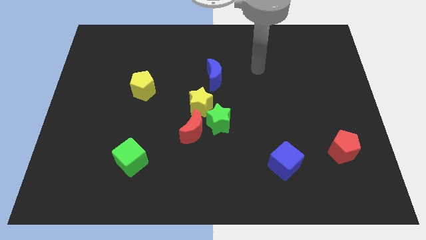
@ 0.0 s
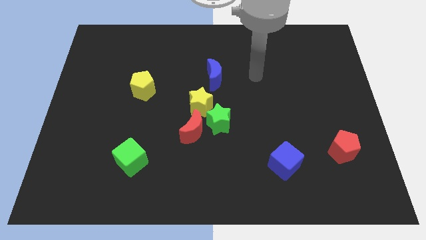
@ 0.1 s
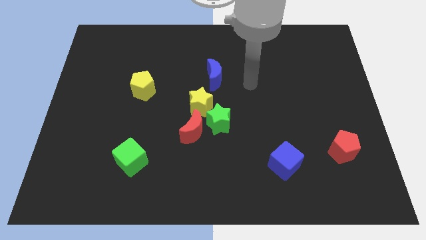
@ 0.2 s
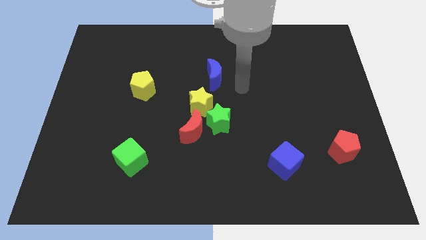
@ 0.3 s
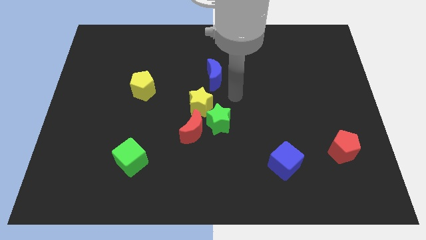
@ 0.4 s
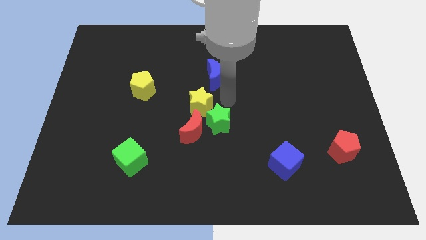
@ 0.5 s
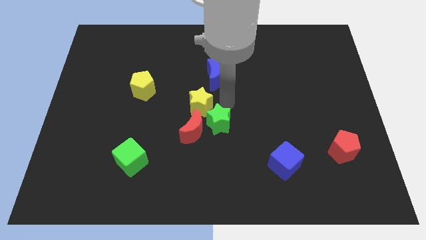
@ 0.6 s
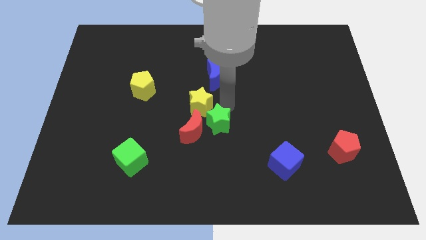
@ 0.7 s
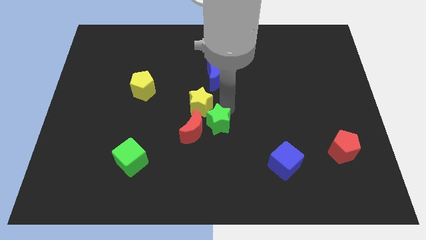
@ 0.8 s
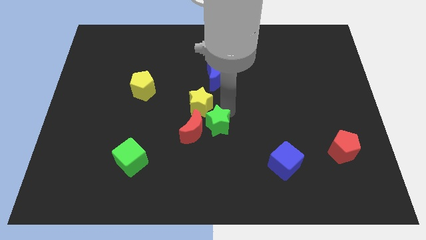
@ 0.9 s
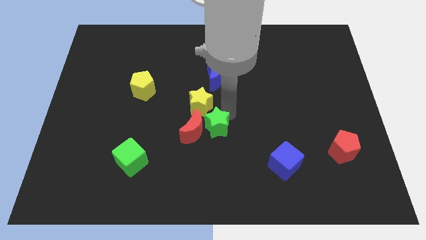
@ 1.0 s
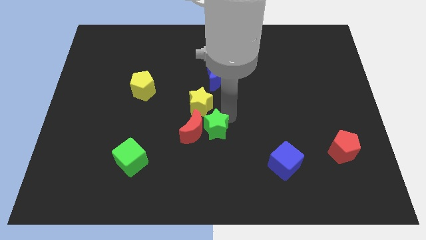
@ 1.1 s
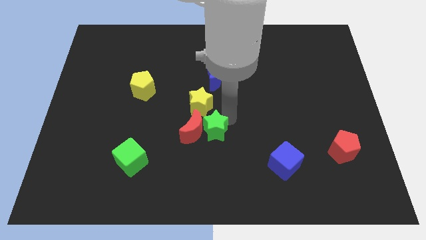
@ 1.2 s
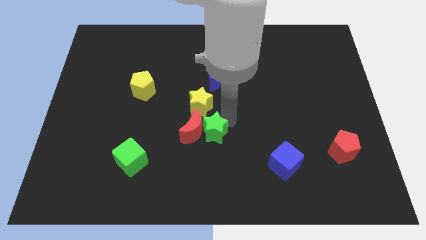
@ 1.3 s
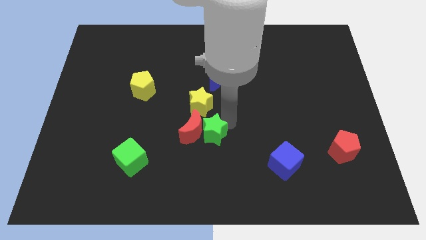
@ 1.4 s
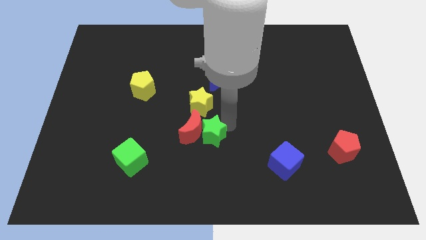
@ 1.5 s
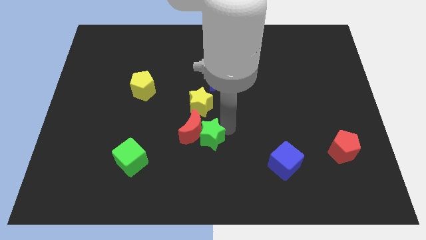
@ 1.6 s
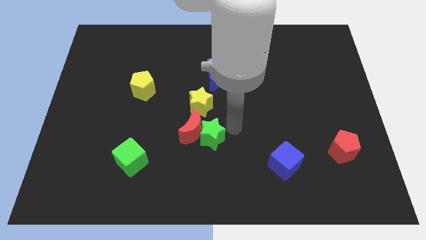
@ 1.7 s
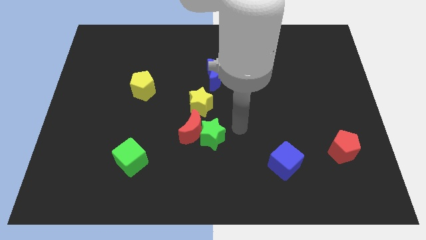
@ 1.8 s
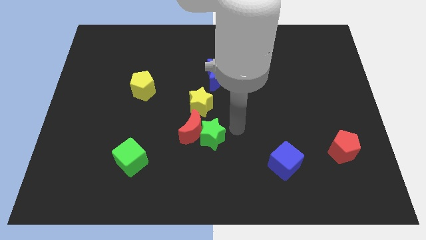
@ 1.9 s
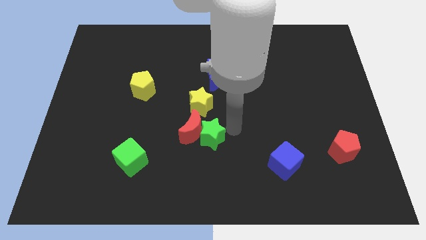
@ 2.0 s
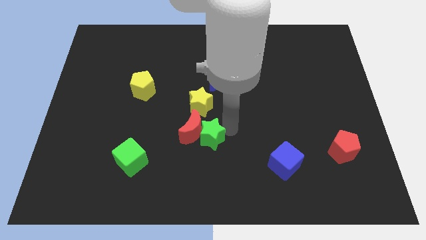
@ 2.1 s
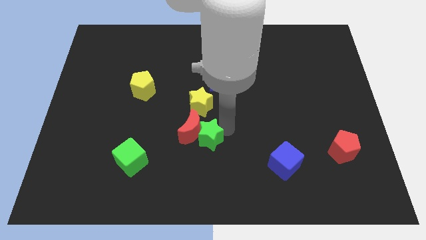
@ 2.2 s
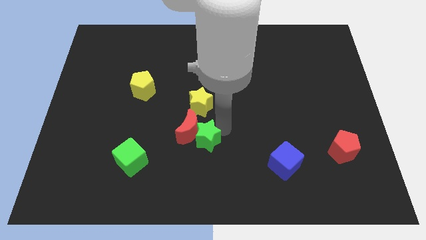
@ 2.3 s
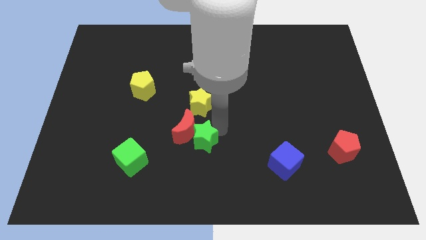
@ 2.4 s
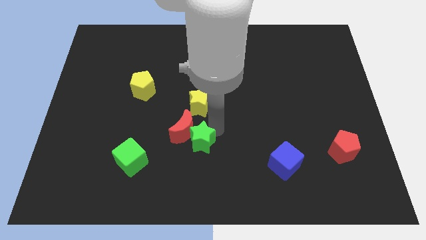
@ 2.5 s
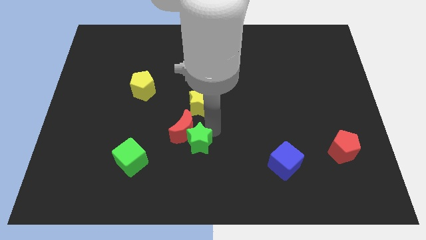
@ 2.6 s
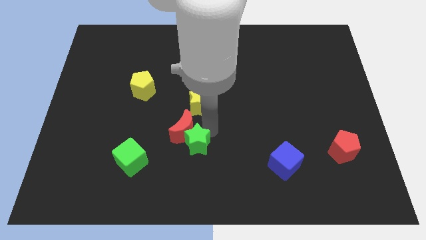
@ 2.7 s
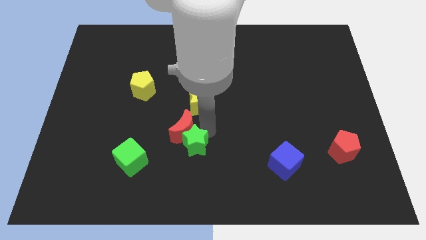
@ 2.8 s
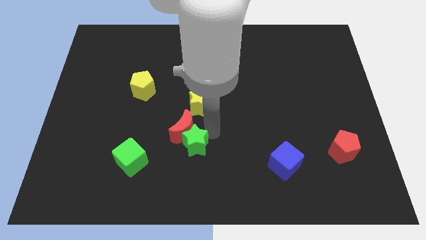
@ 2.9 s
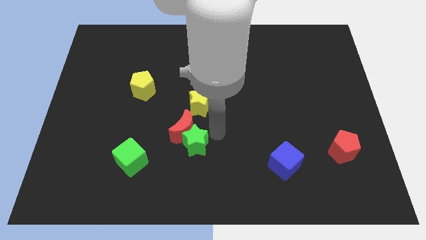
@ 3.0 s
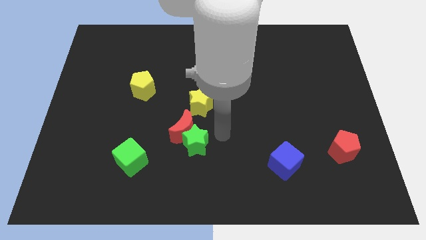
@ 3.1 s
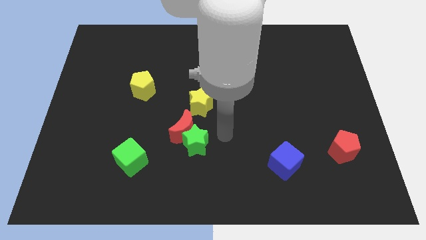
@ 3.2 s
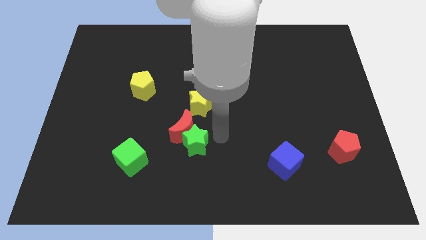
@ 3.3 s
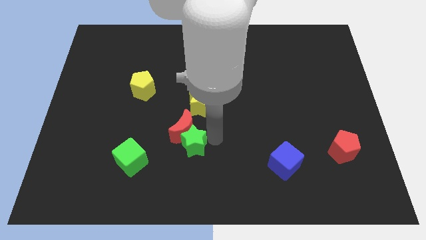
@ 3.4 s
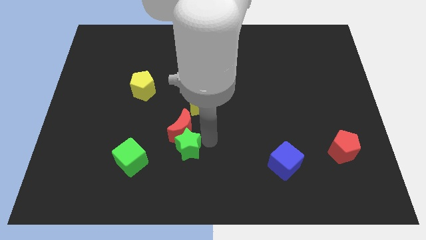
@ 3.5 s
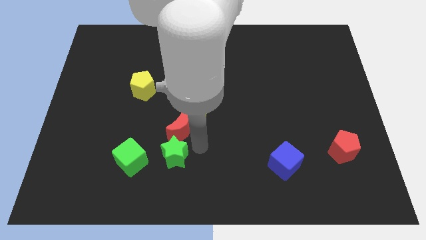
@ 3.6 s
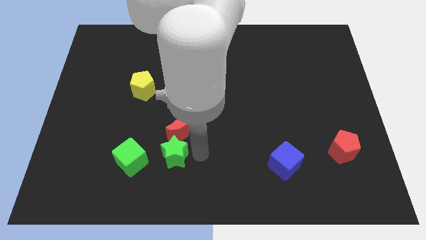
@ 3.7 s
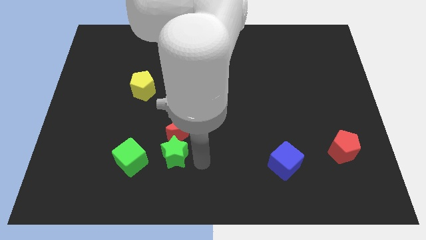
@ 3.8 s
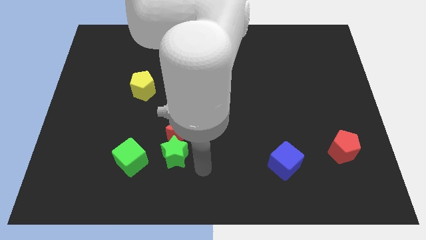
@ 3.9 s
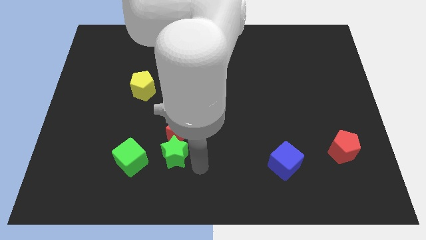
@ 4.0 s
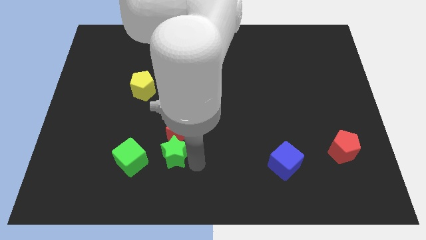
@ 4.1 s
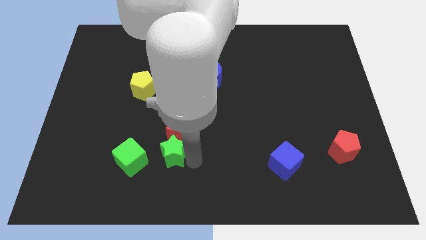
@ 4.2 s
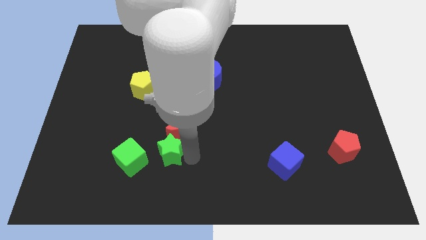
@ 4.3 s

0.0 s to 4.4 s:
slightly slide the green star to the left

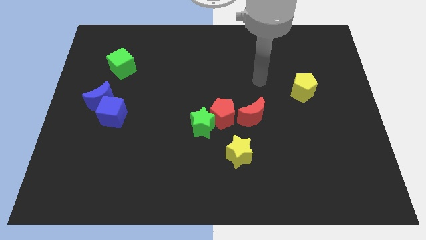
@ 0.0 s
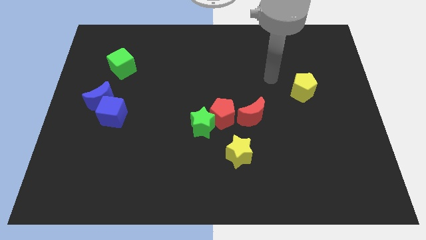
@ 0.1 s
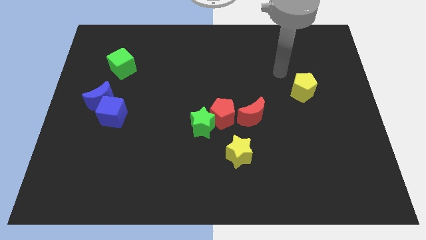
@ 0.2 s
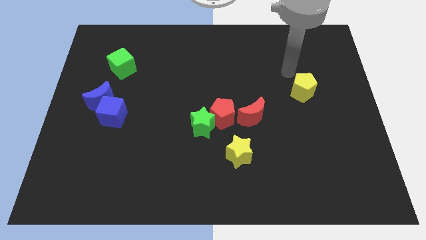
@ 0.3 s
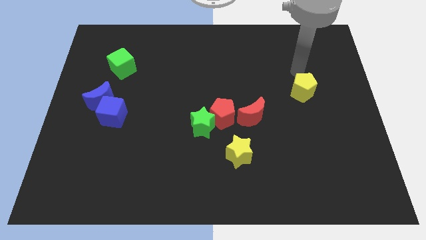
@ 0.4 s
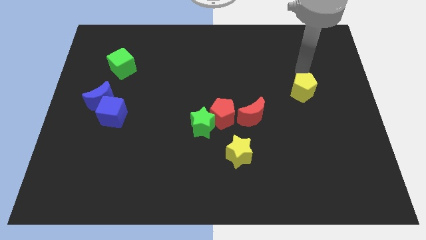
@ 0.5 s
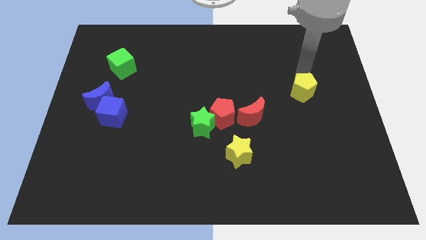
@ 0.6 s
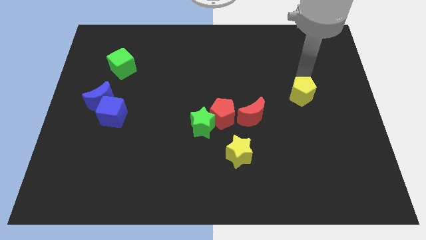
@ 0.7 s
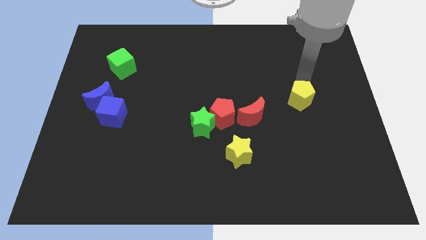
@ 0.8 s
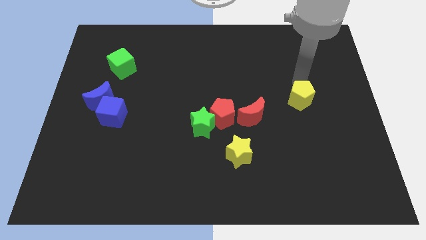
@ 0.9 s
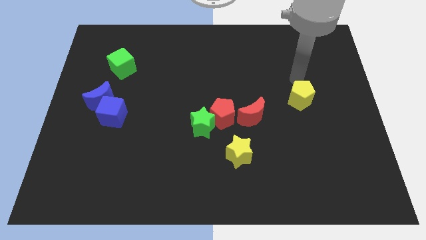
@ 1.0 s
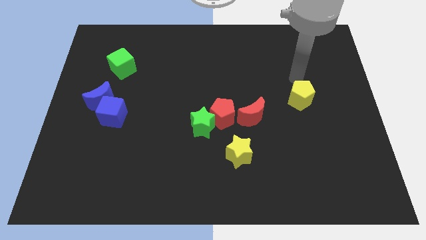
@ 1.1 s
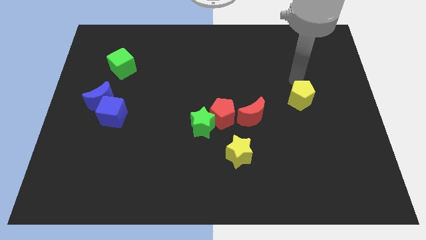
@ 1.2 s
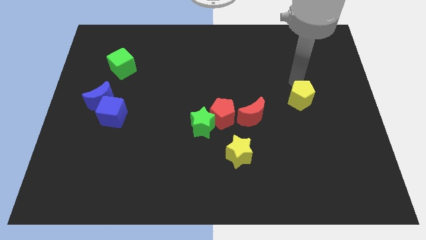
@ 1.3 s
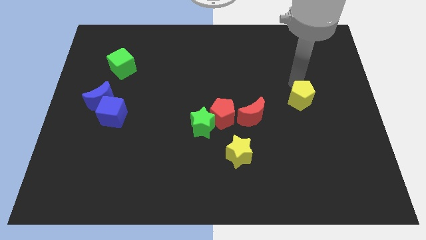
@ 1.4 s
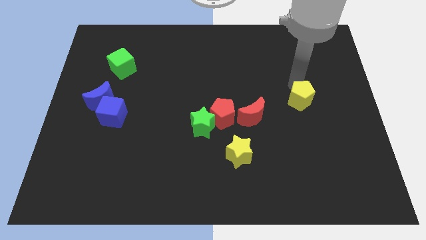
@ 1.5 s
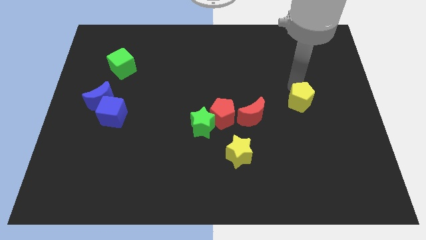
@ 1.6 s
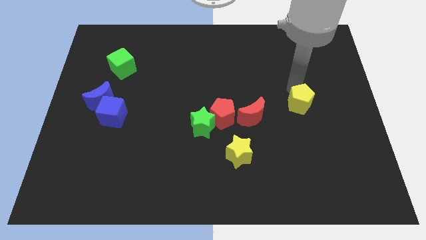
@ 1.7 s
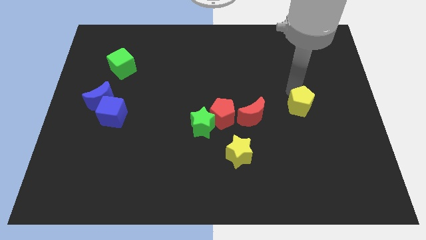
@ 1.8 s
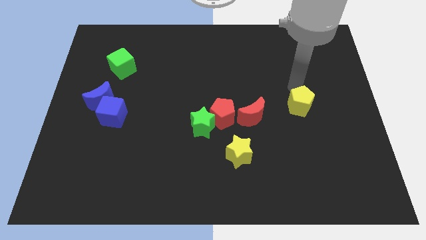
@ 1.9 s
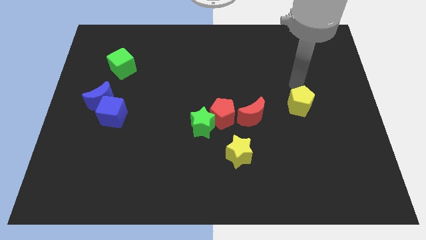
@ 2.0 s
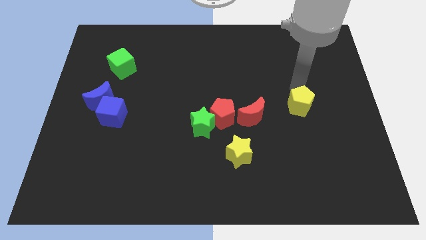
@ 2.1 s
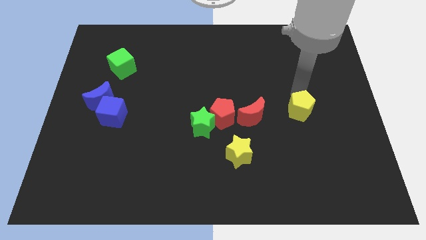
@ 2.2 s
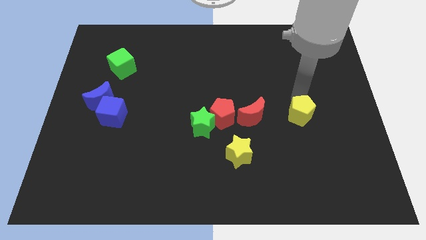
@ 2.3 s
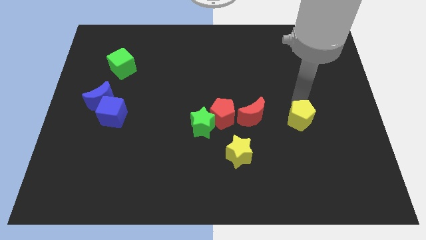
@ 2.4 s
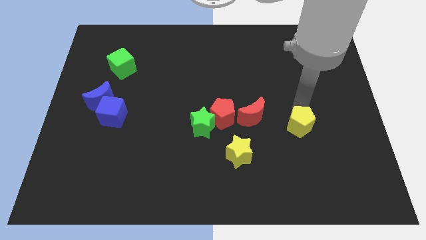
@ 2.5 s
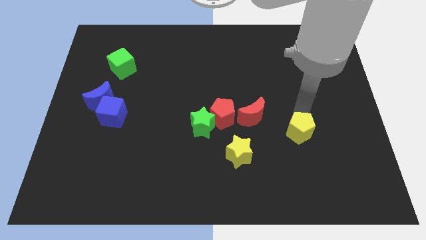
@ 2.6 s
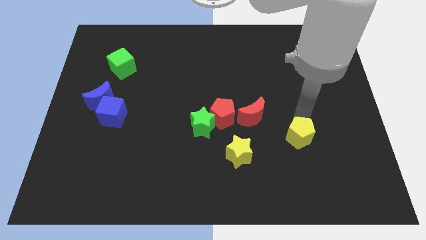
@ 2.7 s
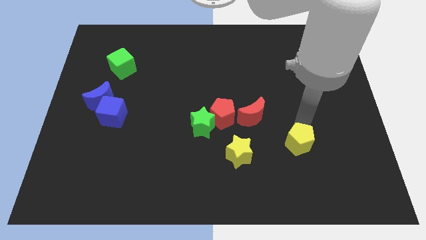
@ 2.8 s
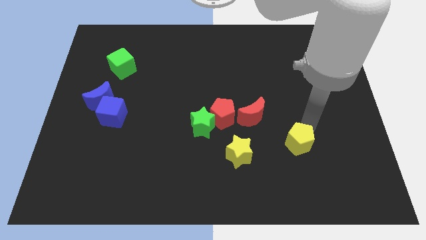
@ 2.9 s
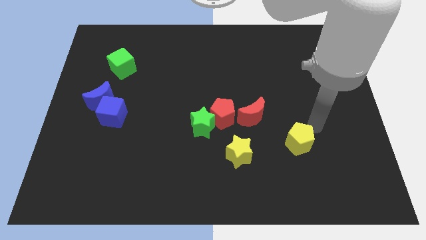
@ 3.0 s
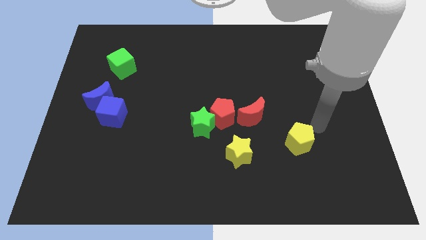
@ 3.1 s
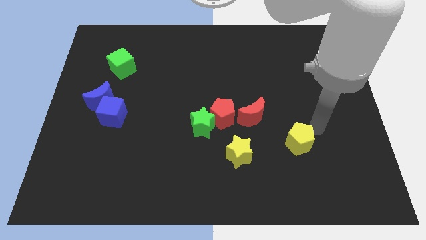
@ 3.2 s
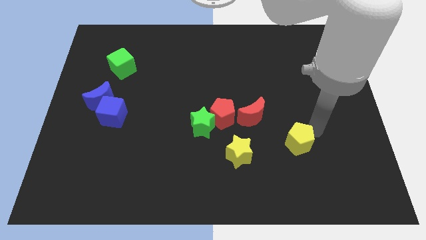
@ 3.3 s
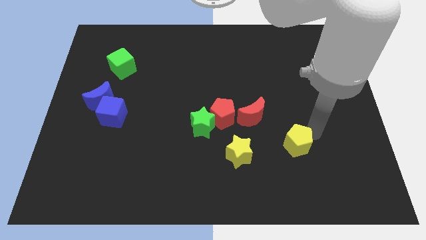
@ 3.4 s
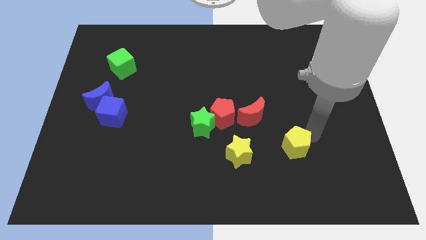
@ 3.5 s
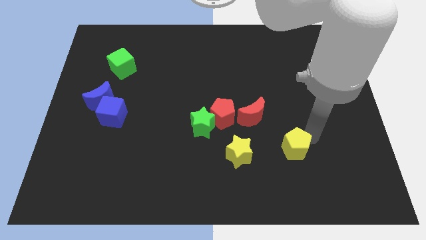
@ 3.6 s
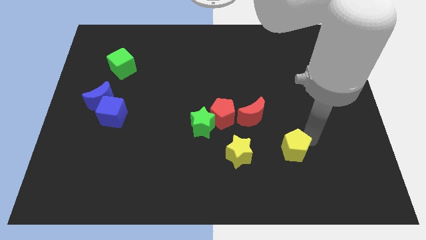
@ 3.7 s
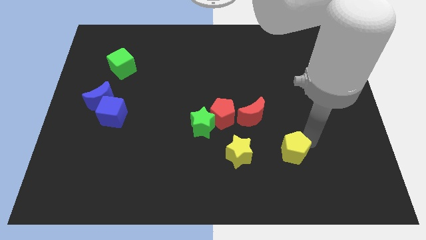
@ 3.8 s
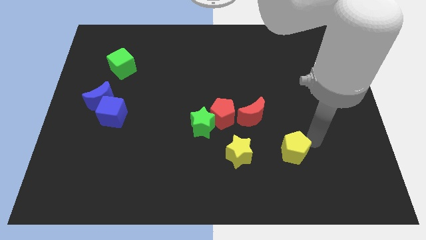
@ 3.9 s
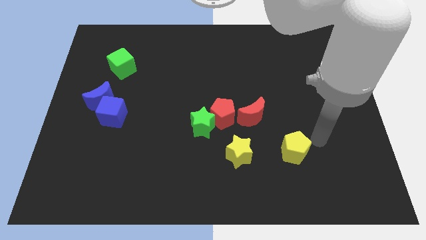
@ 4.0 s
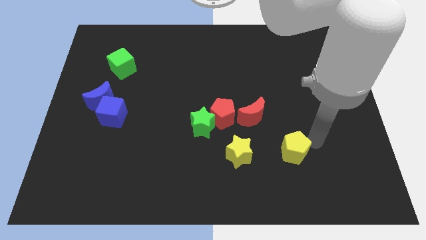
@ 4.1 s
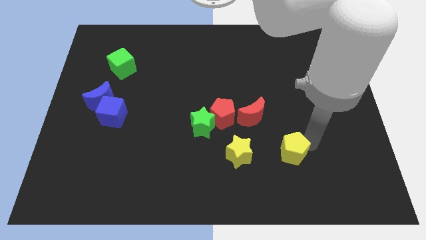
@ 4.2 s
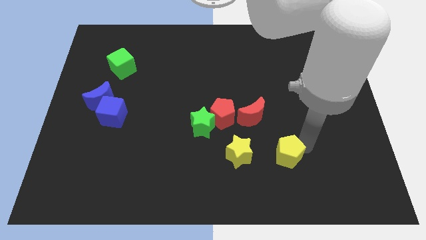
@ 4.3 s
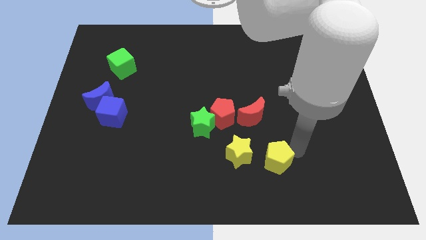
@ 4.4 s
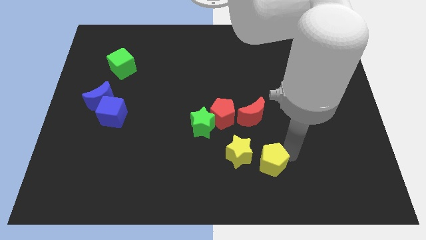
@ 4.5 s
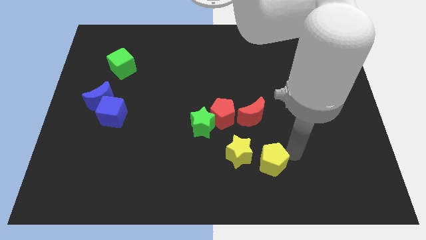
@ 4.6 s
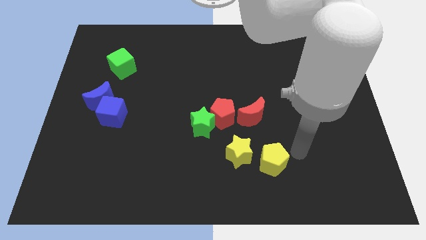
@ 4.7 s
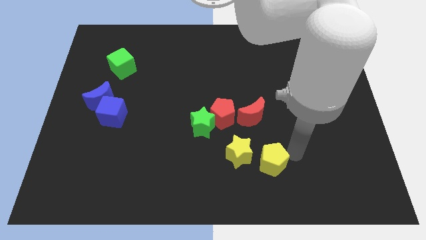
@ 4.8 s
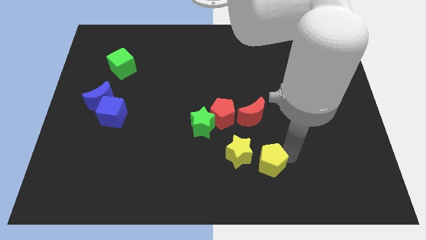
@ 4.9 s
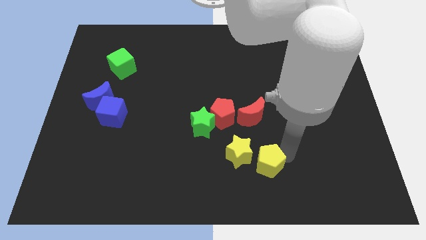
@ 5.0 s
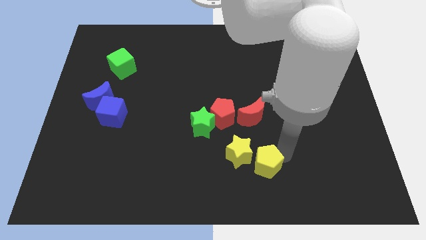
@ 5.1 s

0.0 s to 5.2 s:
push the yellow pentagon diagonally down and to the left
